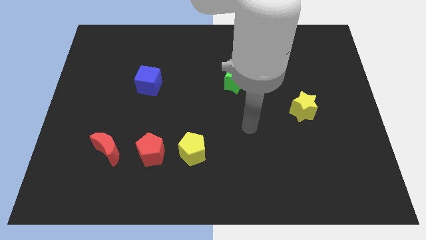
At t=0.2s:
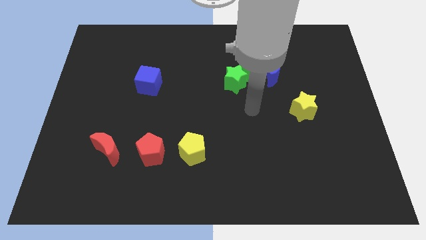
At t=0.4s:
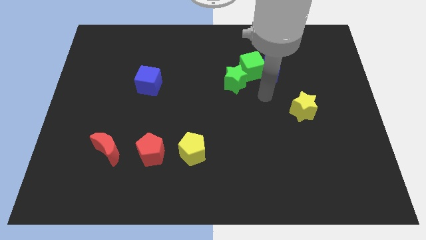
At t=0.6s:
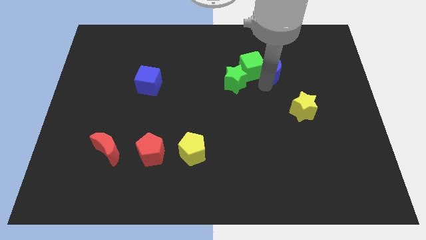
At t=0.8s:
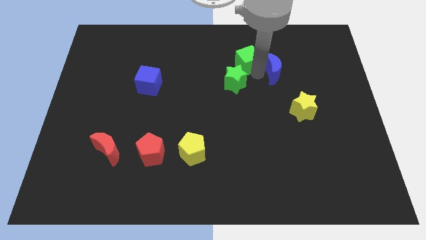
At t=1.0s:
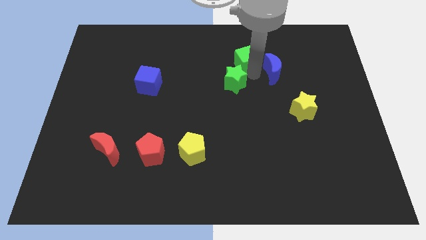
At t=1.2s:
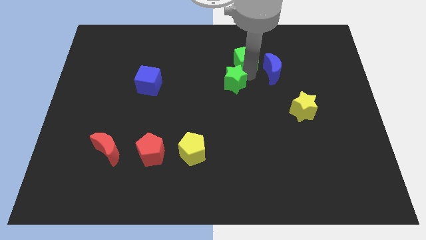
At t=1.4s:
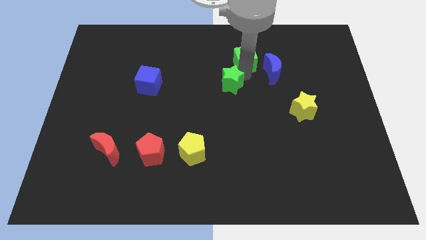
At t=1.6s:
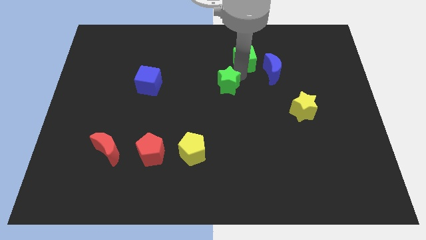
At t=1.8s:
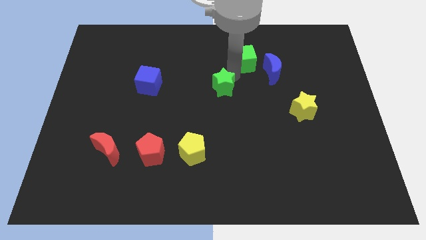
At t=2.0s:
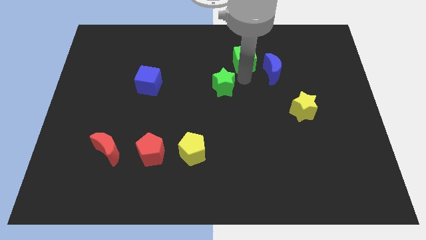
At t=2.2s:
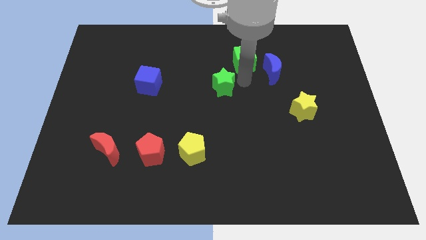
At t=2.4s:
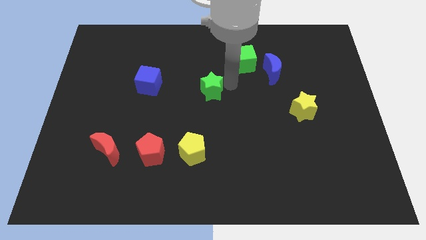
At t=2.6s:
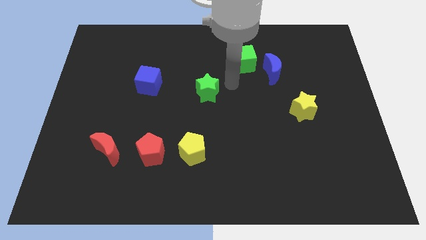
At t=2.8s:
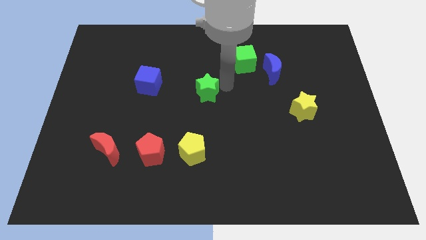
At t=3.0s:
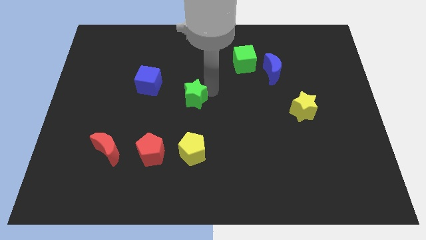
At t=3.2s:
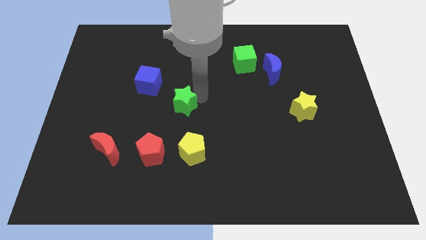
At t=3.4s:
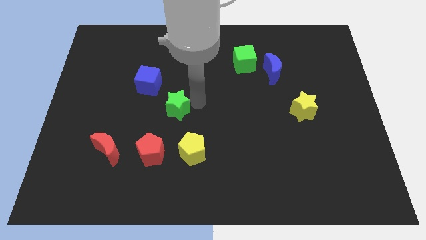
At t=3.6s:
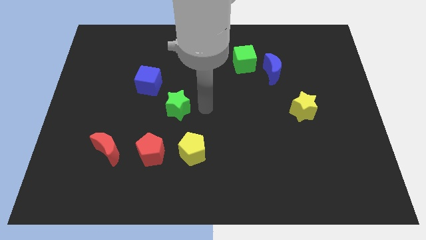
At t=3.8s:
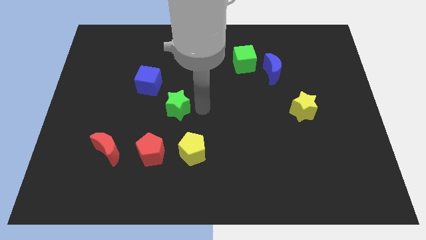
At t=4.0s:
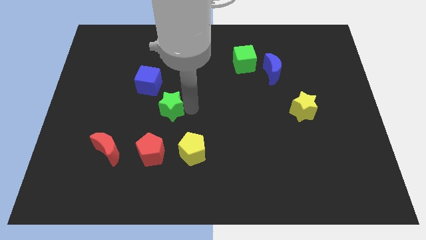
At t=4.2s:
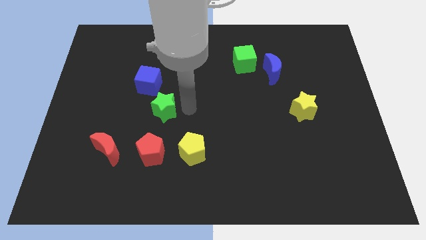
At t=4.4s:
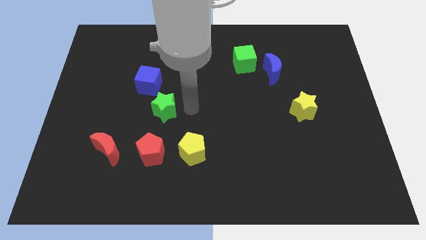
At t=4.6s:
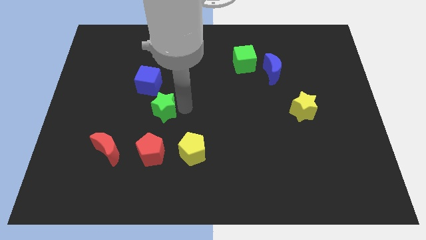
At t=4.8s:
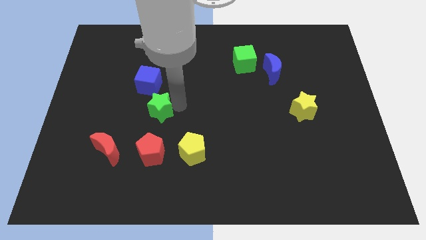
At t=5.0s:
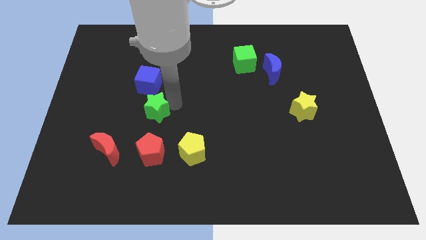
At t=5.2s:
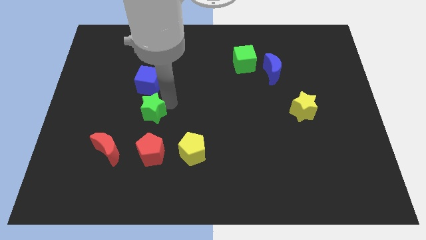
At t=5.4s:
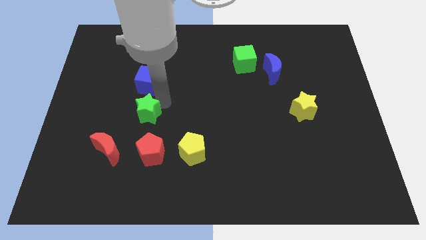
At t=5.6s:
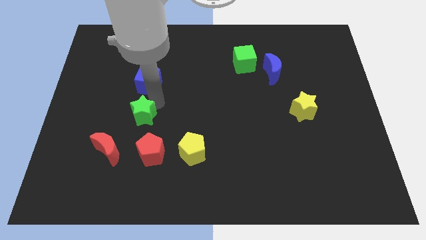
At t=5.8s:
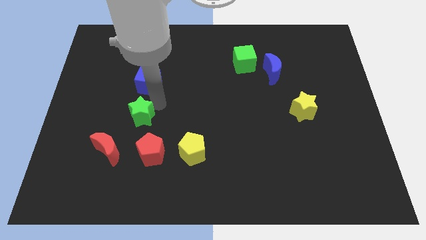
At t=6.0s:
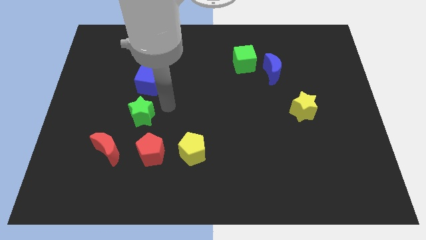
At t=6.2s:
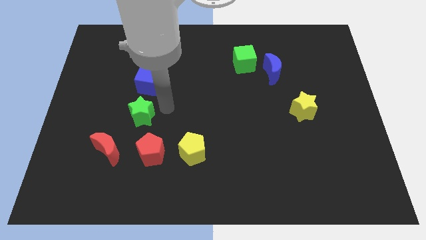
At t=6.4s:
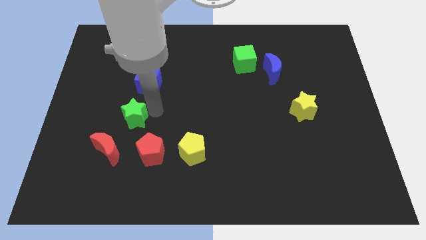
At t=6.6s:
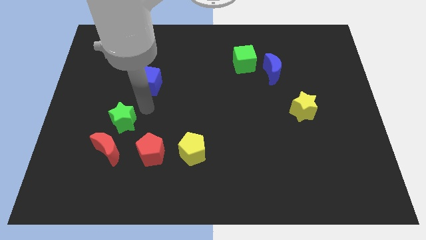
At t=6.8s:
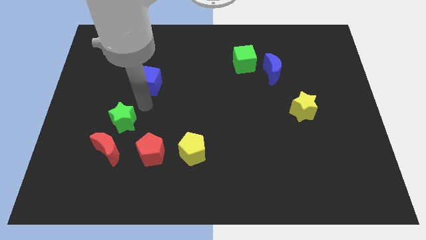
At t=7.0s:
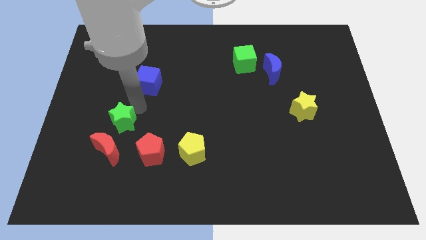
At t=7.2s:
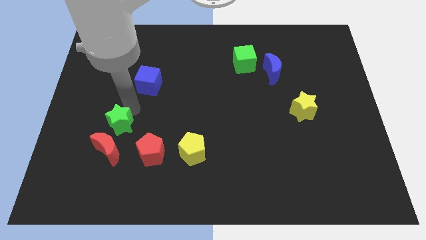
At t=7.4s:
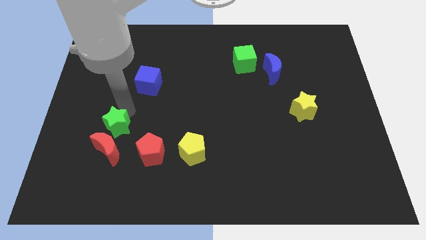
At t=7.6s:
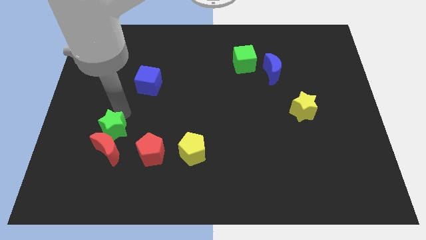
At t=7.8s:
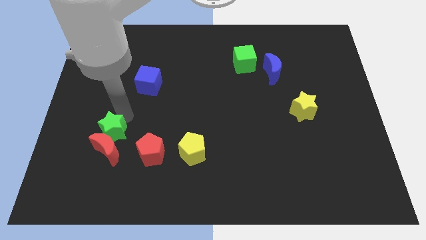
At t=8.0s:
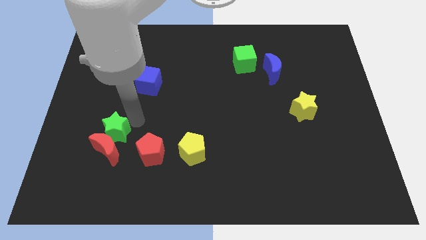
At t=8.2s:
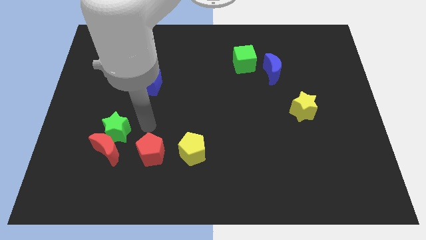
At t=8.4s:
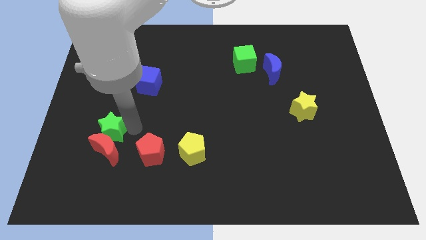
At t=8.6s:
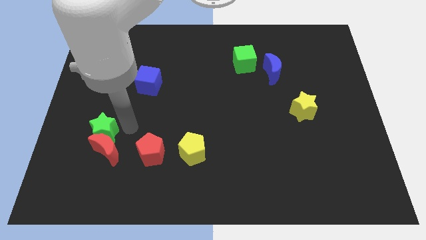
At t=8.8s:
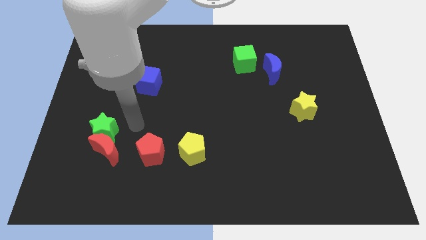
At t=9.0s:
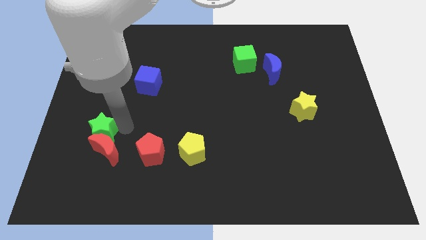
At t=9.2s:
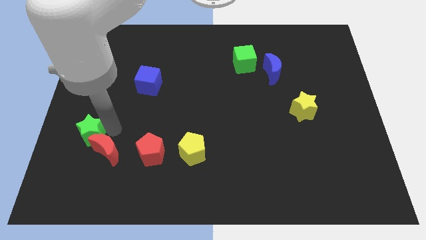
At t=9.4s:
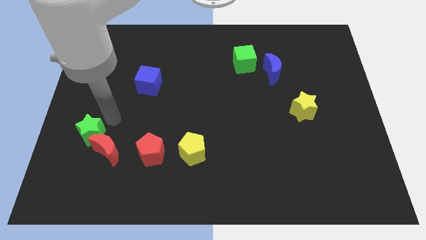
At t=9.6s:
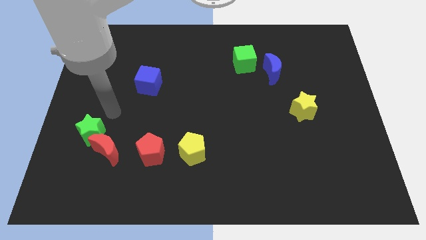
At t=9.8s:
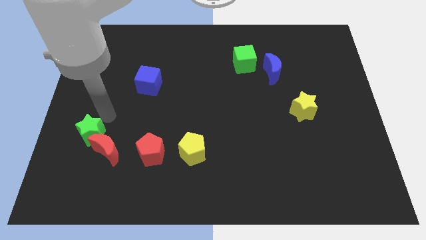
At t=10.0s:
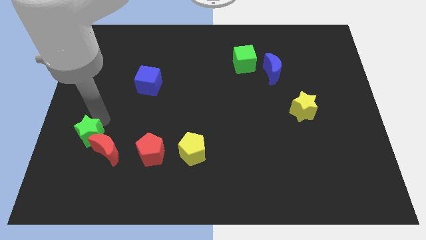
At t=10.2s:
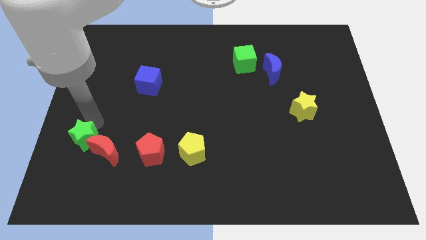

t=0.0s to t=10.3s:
push the green star to the left side of the red pentagon

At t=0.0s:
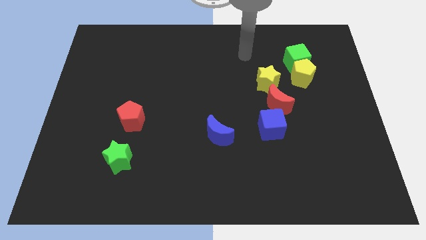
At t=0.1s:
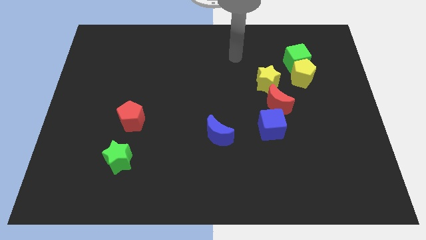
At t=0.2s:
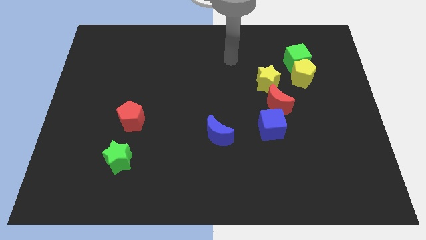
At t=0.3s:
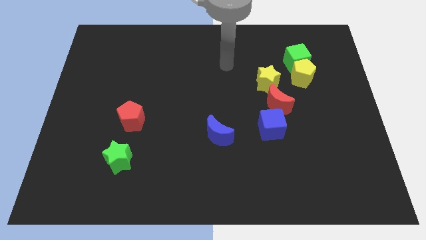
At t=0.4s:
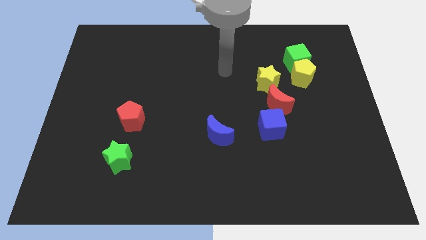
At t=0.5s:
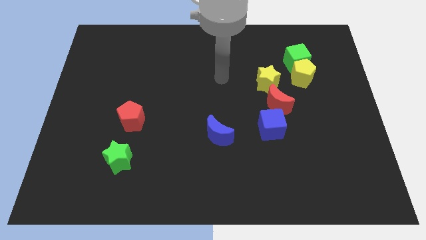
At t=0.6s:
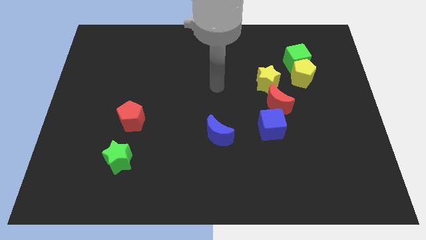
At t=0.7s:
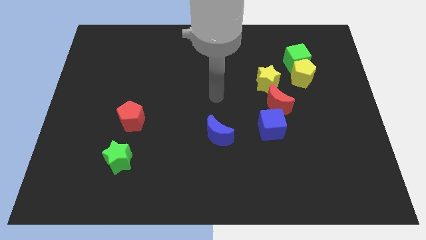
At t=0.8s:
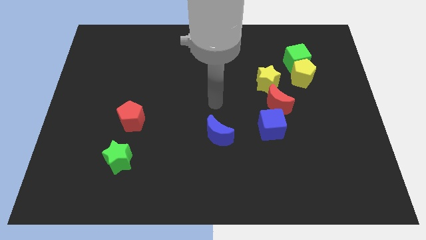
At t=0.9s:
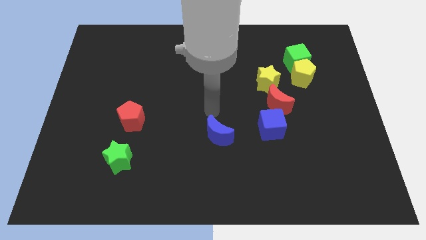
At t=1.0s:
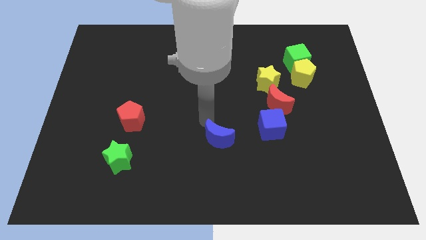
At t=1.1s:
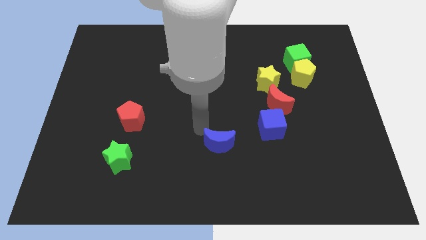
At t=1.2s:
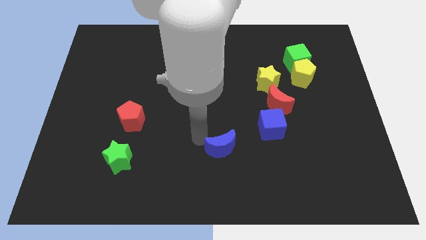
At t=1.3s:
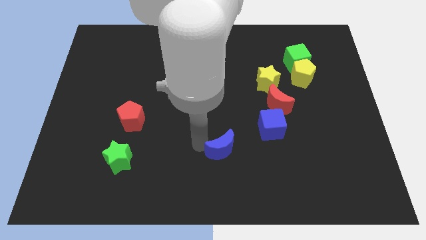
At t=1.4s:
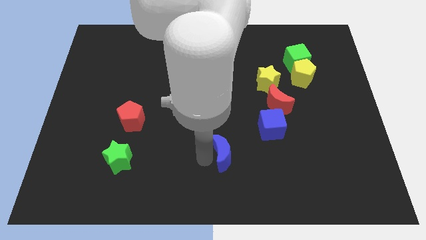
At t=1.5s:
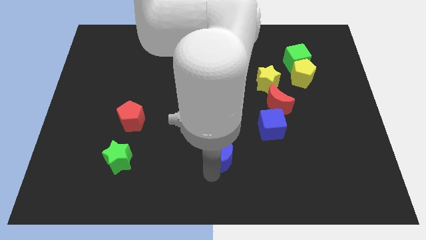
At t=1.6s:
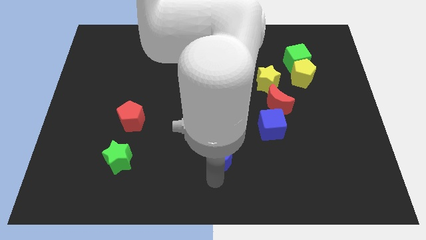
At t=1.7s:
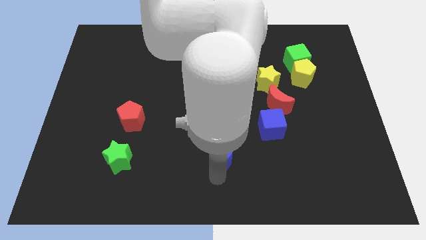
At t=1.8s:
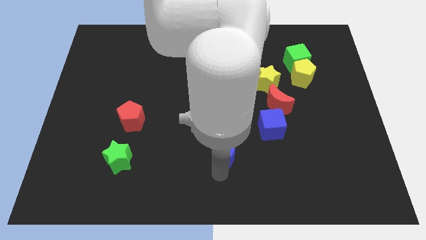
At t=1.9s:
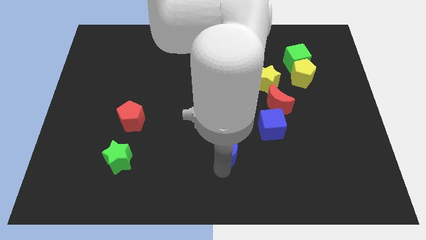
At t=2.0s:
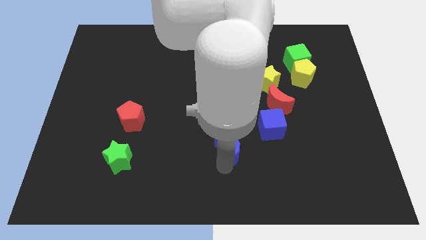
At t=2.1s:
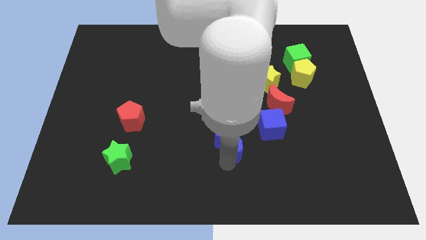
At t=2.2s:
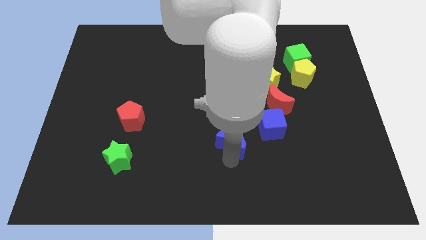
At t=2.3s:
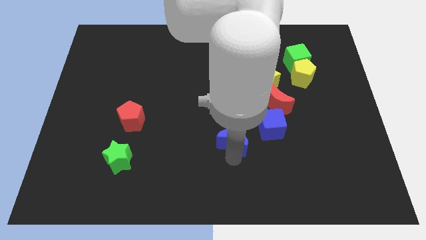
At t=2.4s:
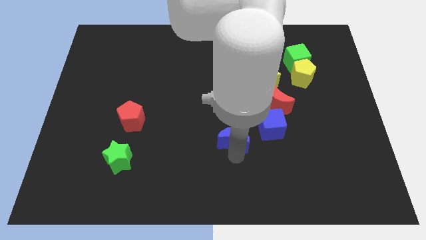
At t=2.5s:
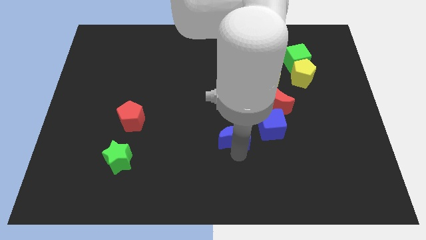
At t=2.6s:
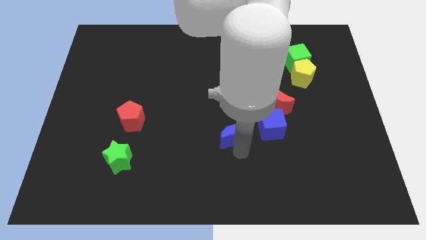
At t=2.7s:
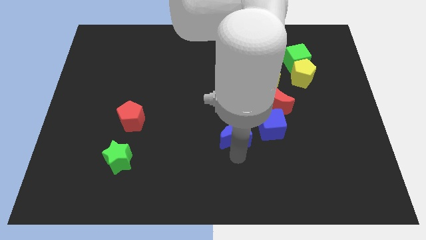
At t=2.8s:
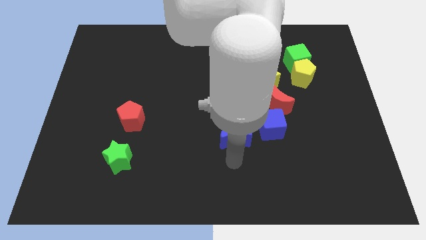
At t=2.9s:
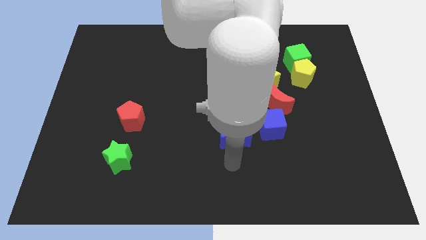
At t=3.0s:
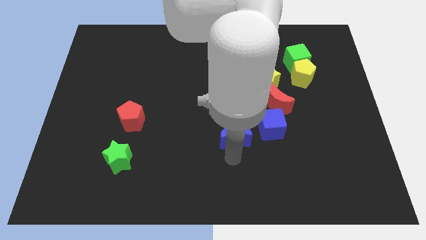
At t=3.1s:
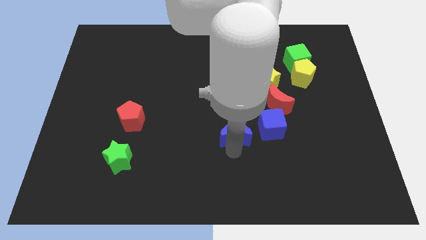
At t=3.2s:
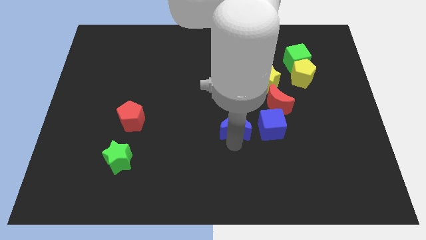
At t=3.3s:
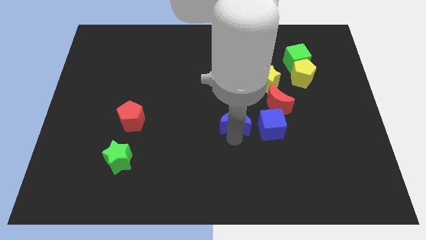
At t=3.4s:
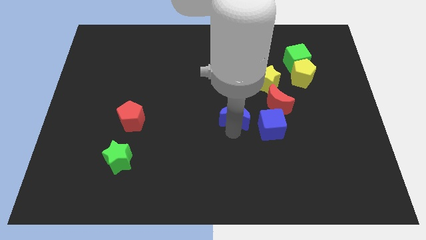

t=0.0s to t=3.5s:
slide the blue moon to the top left of the blue cube
